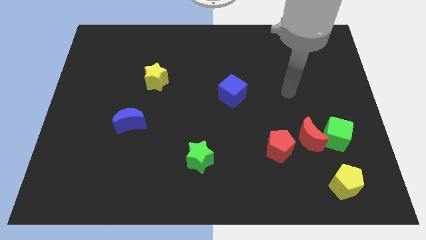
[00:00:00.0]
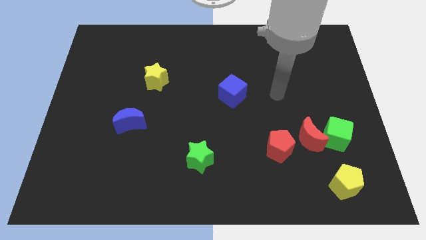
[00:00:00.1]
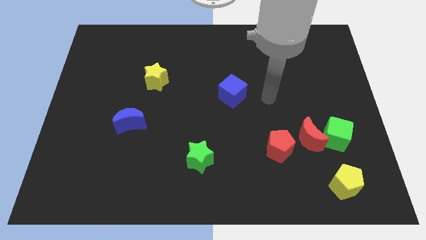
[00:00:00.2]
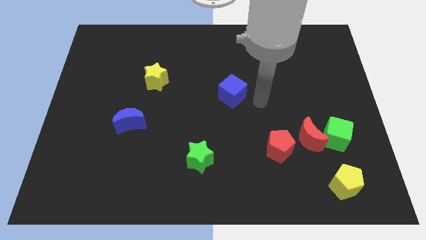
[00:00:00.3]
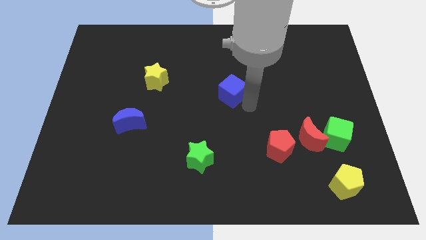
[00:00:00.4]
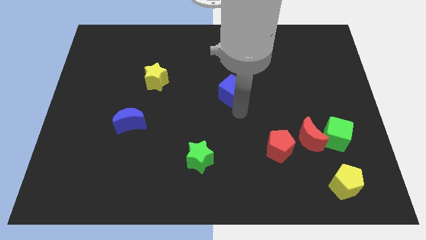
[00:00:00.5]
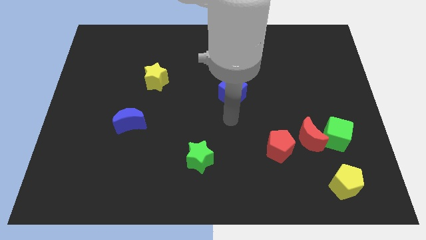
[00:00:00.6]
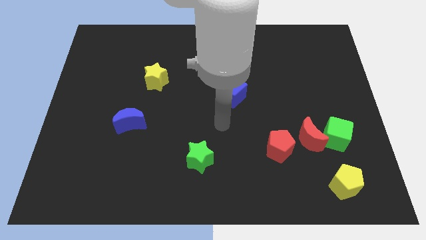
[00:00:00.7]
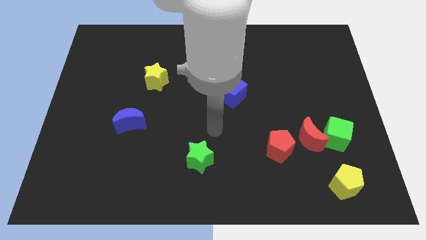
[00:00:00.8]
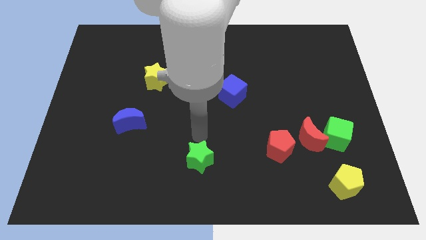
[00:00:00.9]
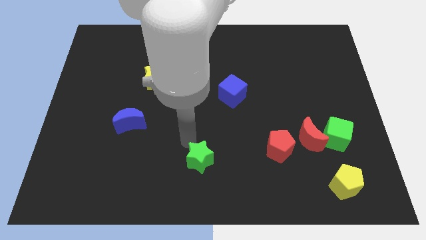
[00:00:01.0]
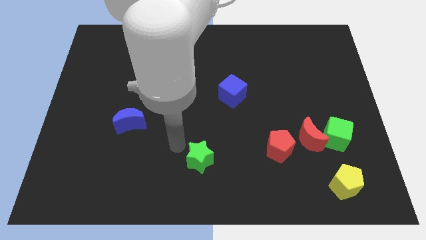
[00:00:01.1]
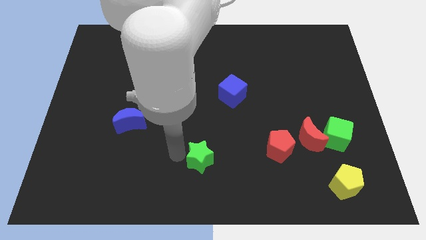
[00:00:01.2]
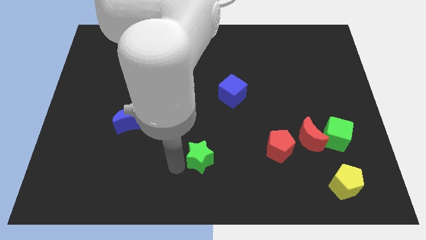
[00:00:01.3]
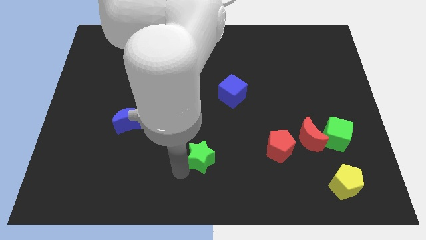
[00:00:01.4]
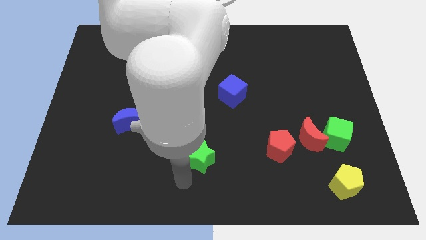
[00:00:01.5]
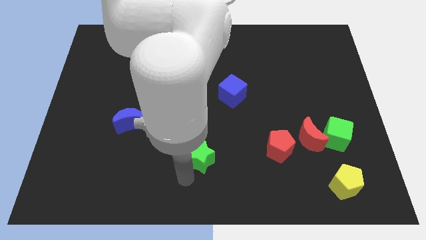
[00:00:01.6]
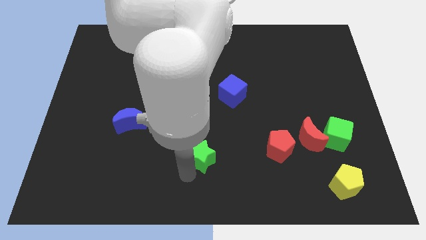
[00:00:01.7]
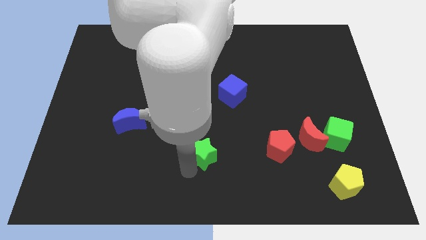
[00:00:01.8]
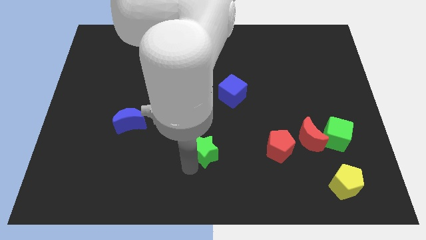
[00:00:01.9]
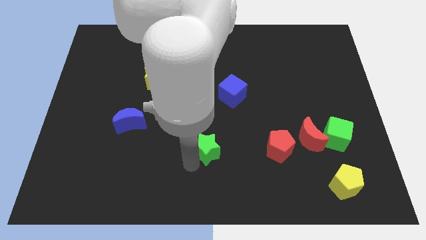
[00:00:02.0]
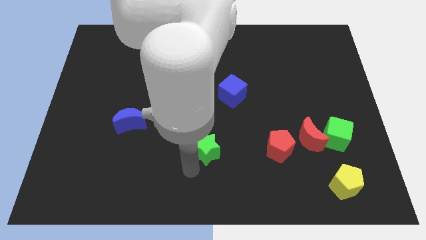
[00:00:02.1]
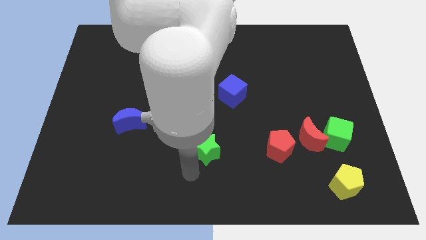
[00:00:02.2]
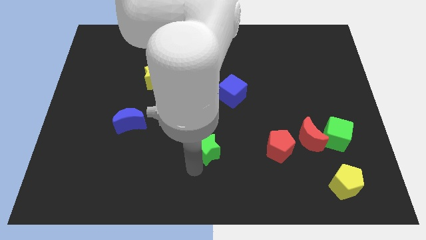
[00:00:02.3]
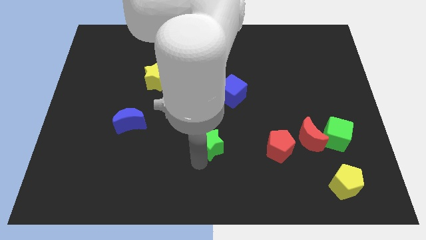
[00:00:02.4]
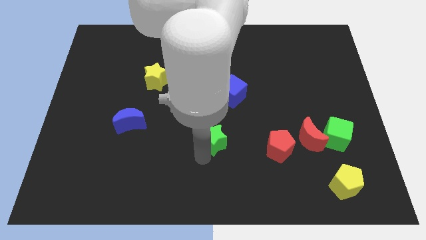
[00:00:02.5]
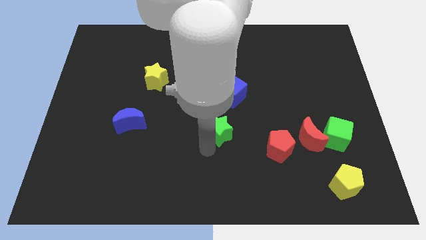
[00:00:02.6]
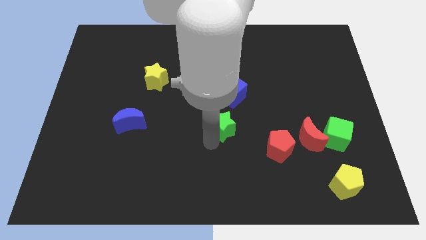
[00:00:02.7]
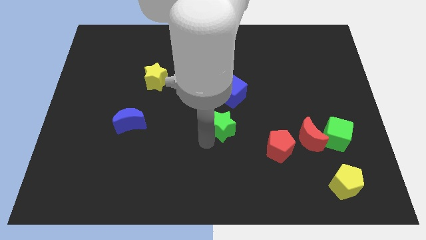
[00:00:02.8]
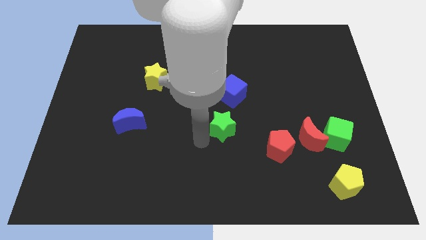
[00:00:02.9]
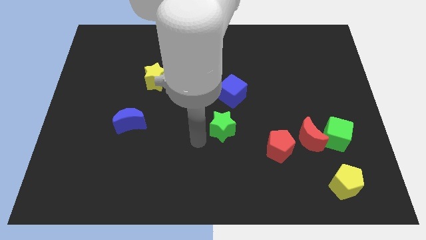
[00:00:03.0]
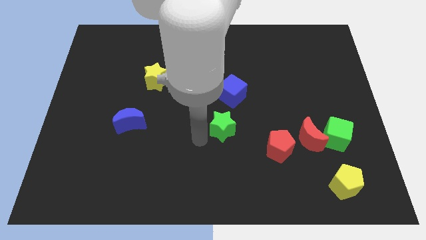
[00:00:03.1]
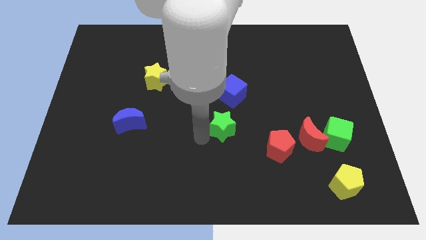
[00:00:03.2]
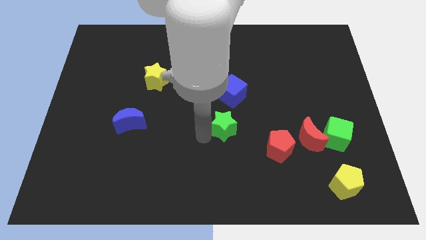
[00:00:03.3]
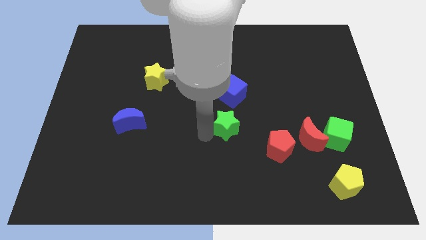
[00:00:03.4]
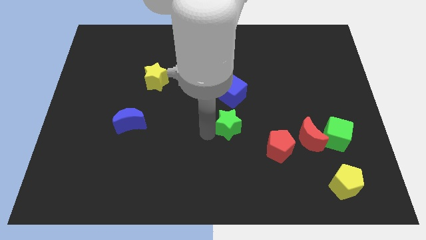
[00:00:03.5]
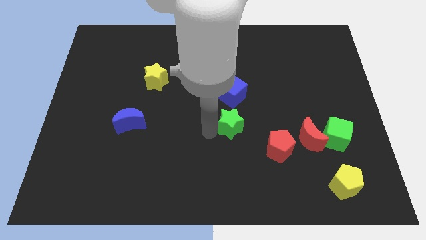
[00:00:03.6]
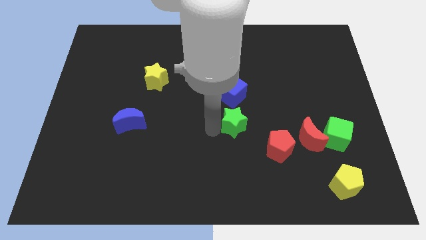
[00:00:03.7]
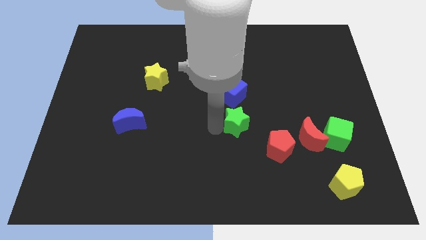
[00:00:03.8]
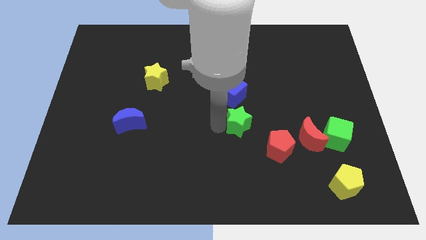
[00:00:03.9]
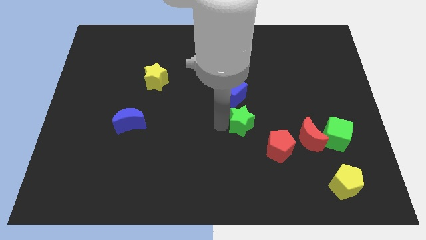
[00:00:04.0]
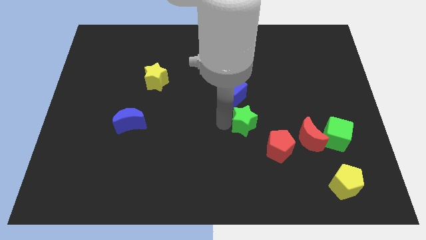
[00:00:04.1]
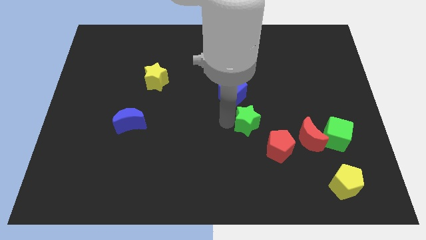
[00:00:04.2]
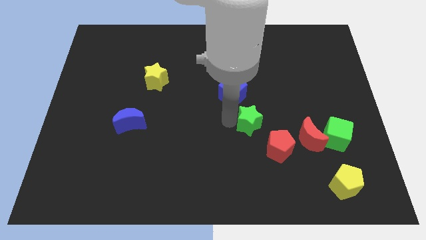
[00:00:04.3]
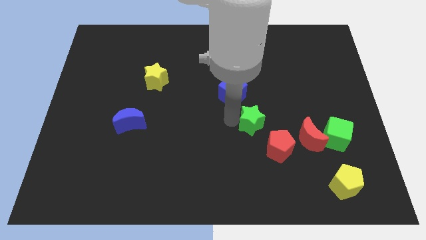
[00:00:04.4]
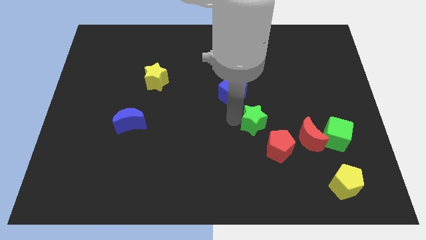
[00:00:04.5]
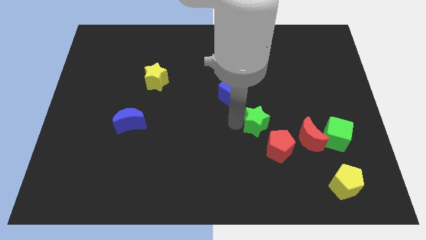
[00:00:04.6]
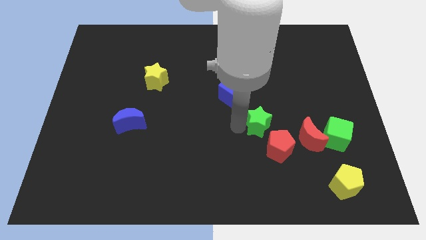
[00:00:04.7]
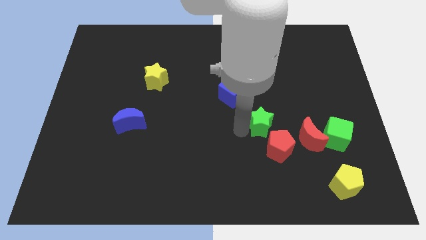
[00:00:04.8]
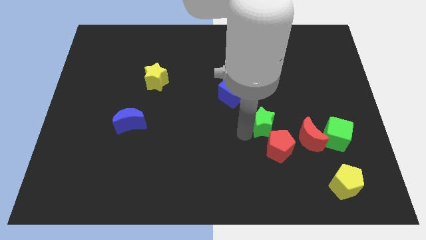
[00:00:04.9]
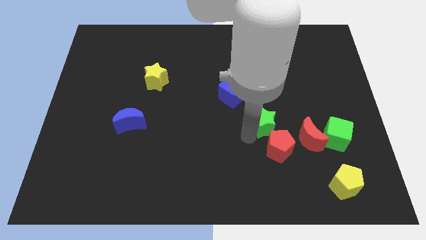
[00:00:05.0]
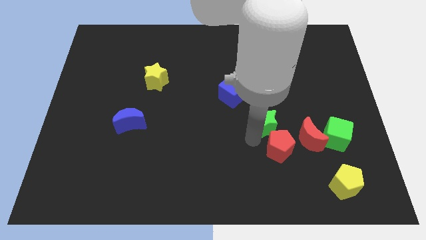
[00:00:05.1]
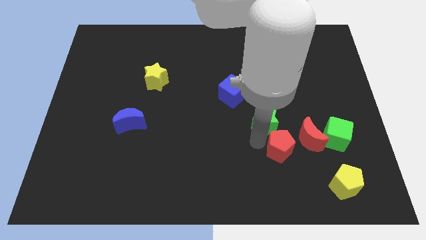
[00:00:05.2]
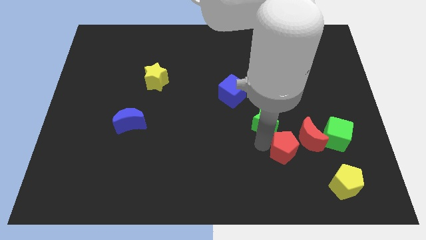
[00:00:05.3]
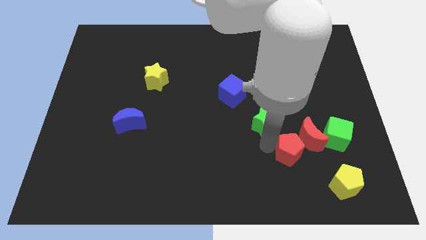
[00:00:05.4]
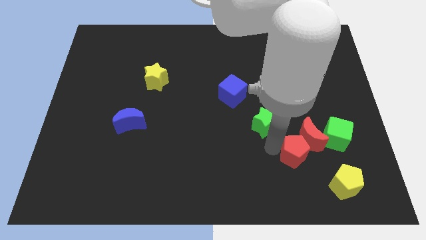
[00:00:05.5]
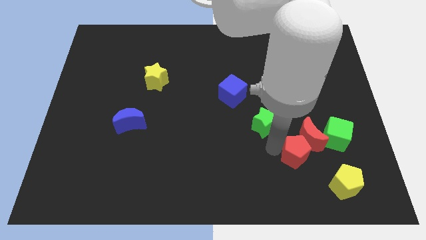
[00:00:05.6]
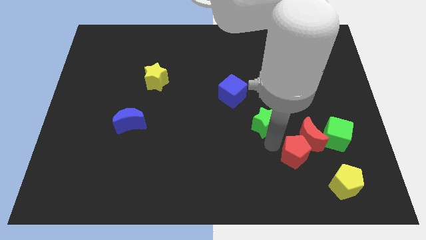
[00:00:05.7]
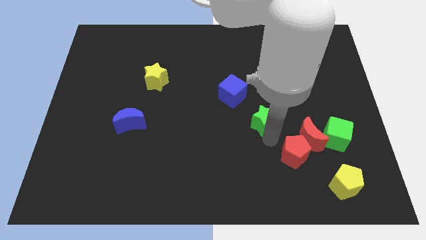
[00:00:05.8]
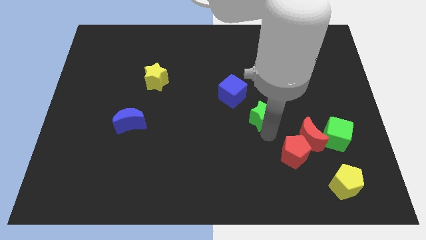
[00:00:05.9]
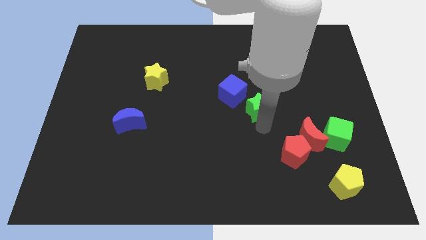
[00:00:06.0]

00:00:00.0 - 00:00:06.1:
move the green star just right of the blue cube
